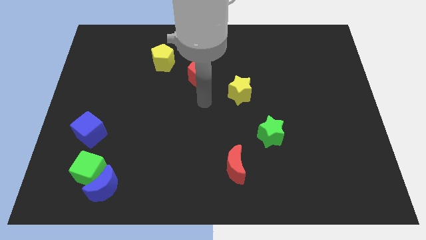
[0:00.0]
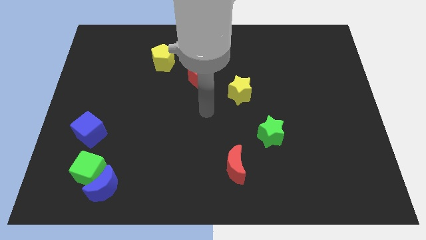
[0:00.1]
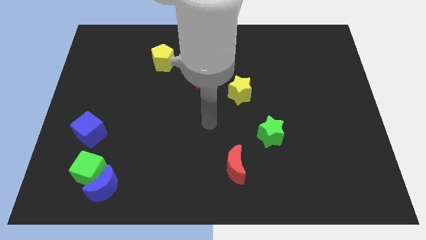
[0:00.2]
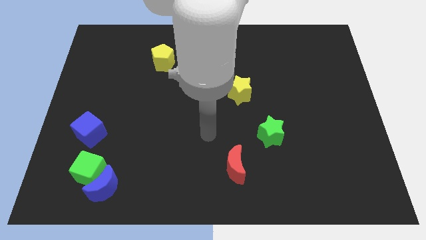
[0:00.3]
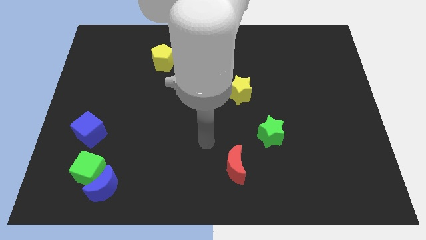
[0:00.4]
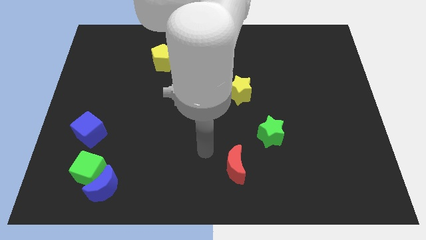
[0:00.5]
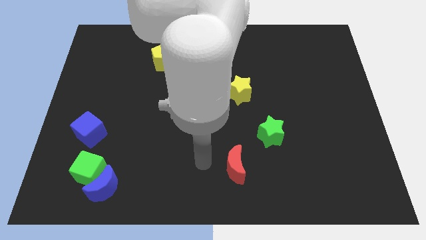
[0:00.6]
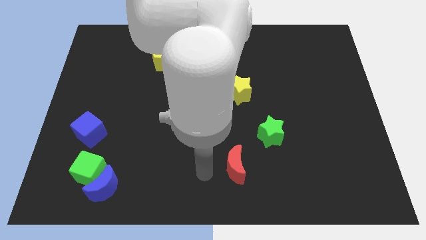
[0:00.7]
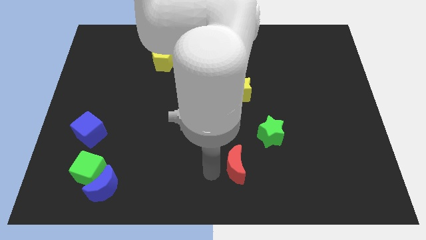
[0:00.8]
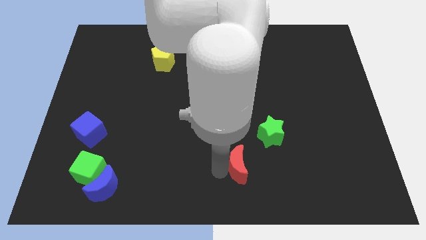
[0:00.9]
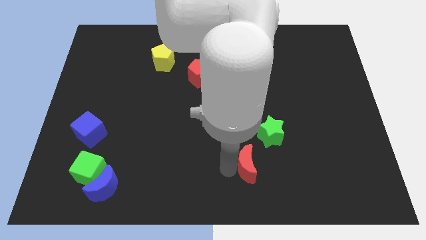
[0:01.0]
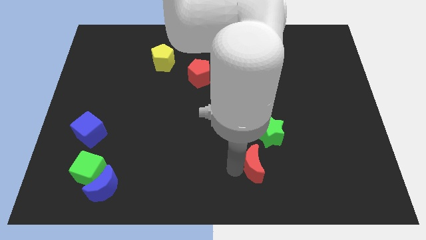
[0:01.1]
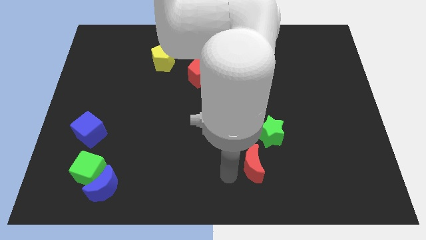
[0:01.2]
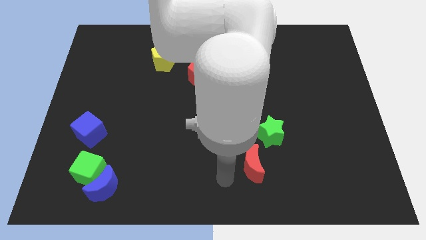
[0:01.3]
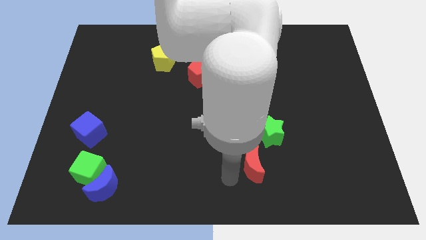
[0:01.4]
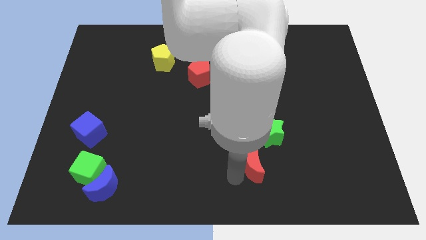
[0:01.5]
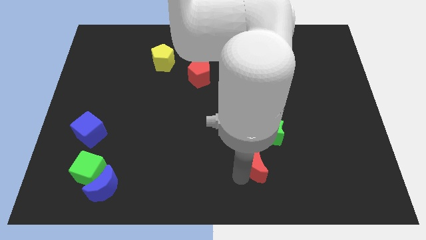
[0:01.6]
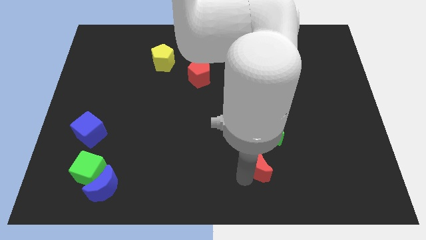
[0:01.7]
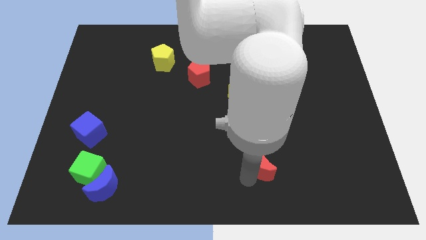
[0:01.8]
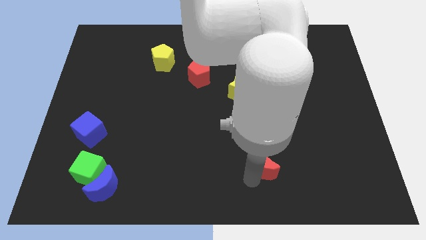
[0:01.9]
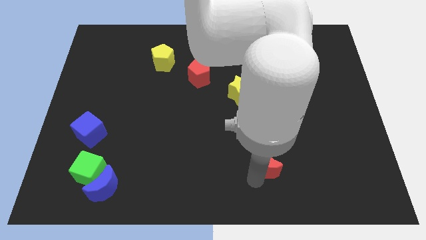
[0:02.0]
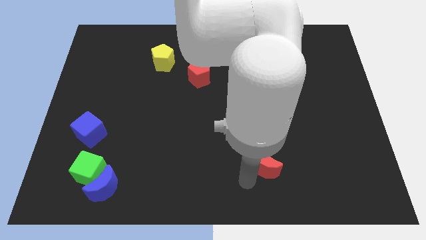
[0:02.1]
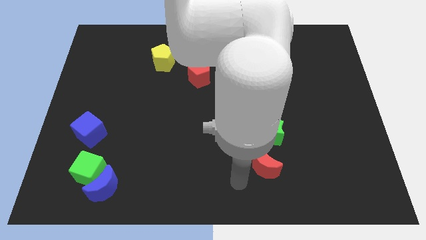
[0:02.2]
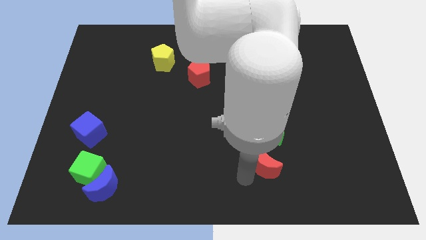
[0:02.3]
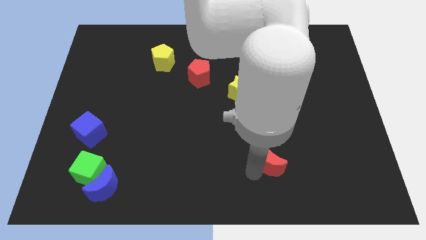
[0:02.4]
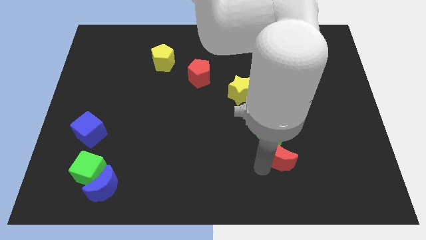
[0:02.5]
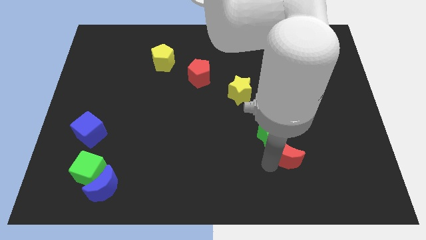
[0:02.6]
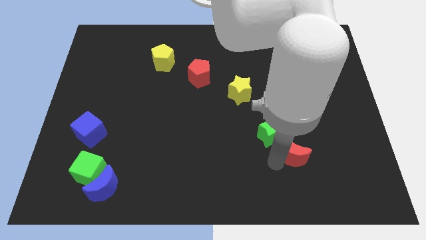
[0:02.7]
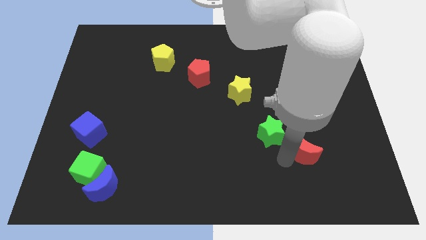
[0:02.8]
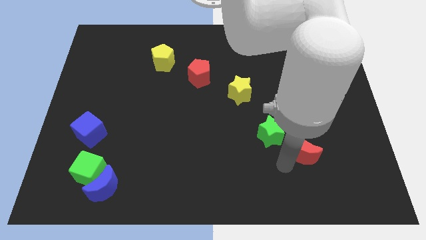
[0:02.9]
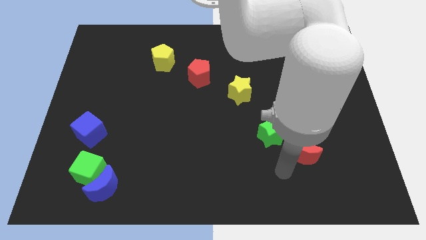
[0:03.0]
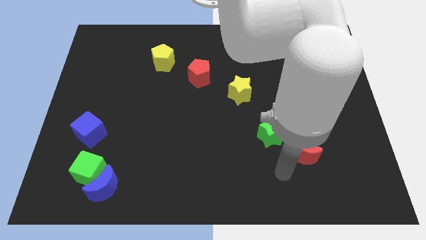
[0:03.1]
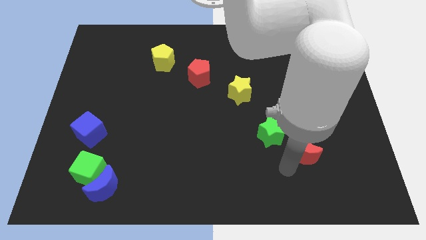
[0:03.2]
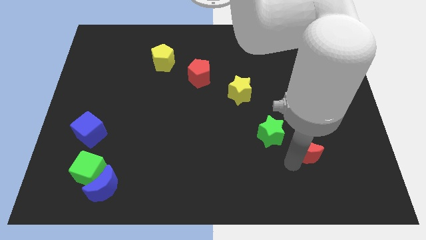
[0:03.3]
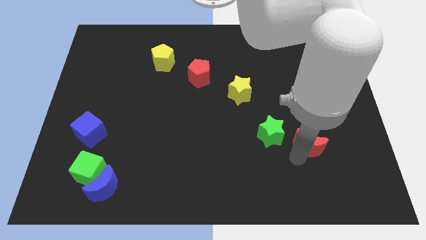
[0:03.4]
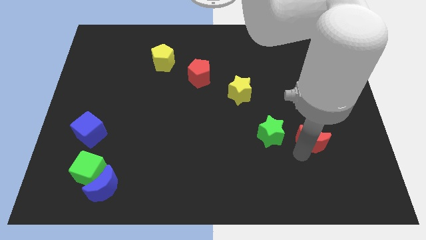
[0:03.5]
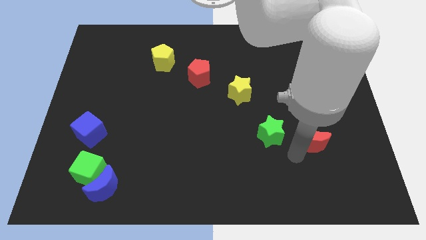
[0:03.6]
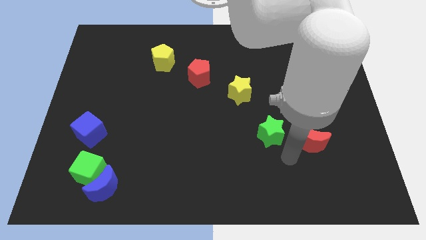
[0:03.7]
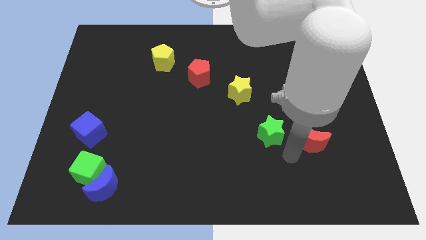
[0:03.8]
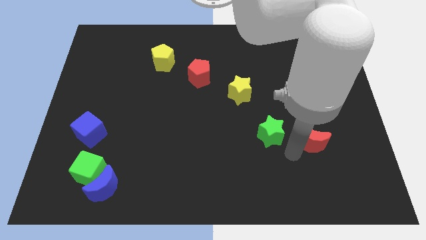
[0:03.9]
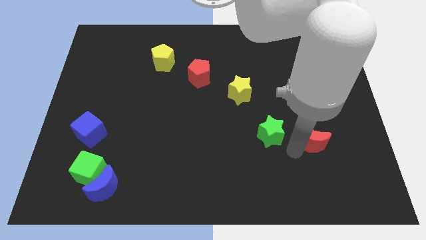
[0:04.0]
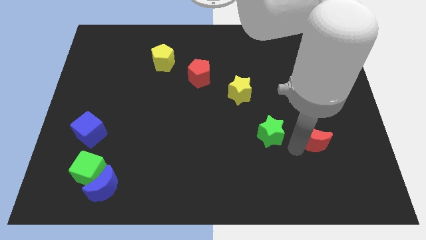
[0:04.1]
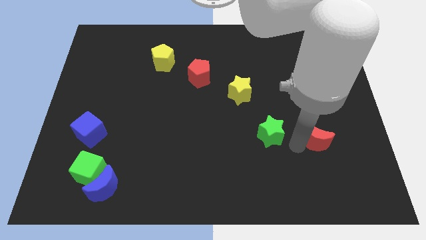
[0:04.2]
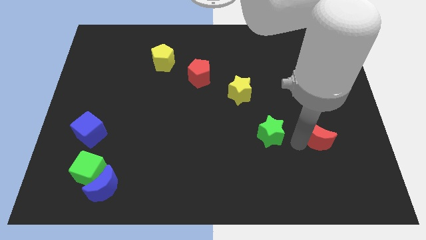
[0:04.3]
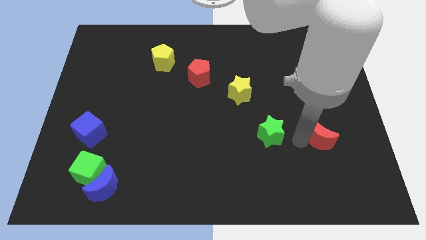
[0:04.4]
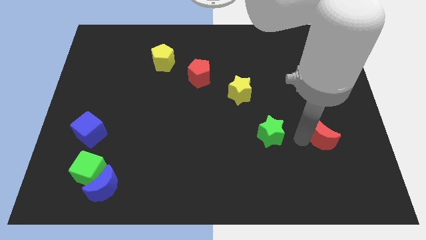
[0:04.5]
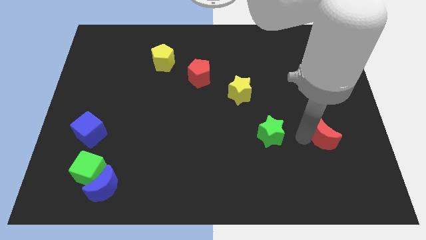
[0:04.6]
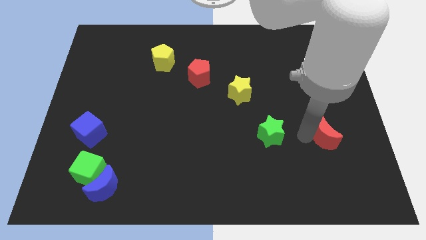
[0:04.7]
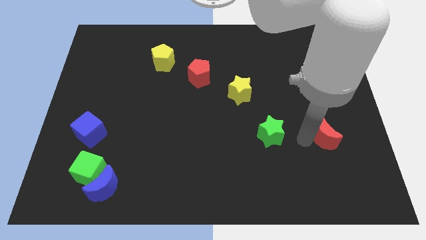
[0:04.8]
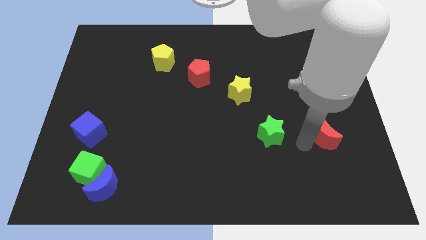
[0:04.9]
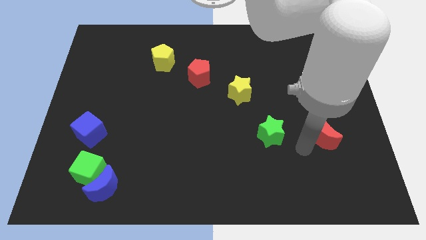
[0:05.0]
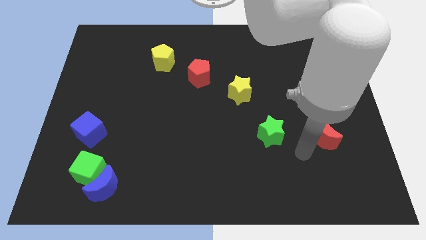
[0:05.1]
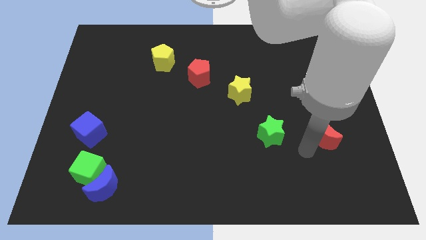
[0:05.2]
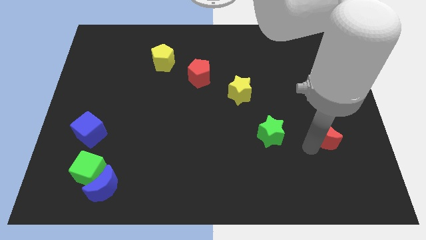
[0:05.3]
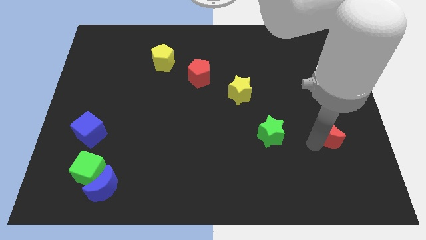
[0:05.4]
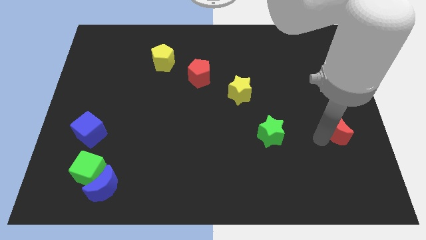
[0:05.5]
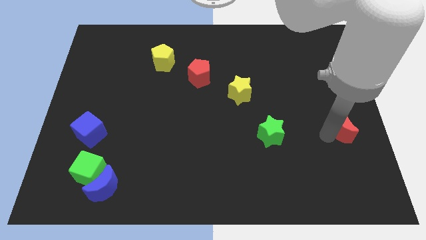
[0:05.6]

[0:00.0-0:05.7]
move the red moon to the right side

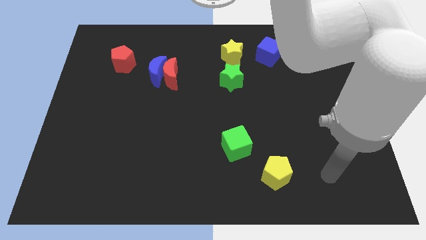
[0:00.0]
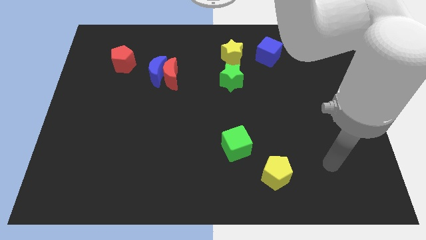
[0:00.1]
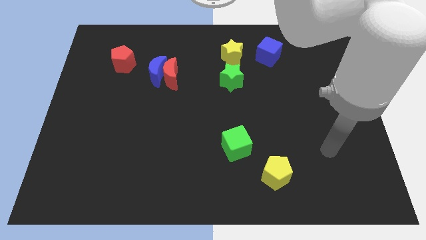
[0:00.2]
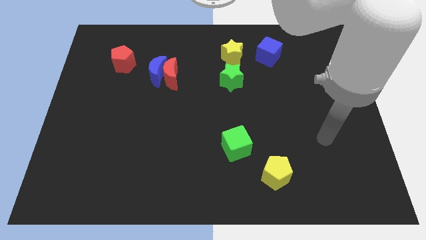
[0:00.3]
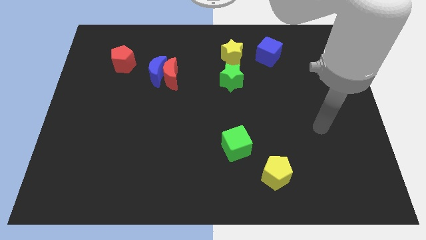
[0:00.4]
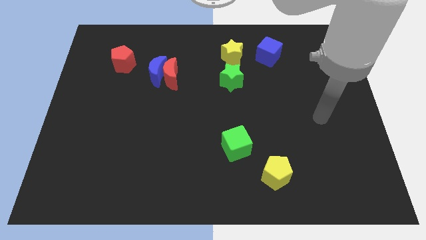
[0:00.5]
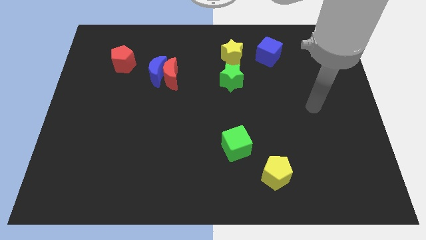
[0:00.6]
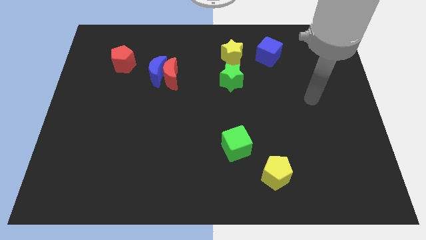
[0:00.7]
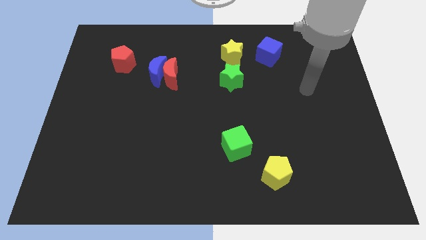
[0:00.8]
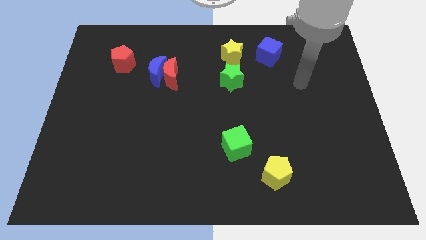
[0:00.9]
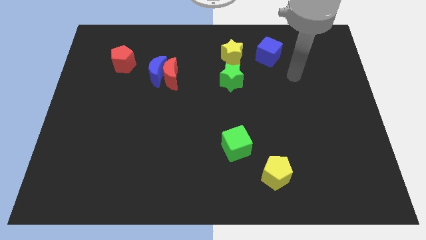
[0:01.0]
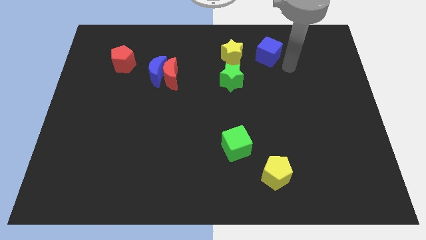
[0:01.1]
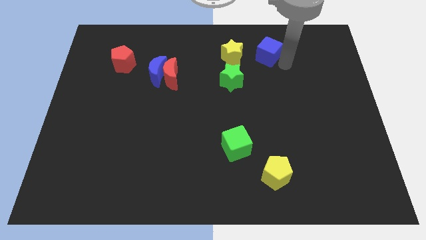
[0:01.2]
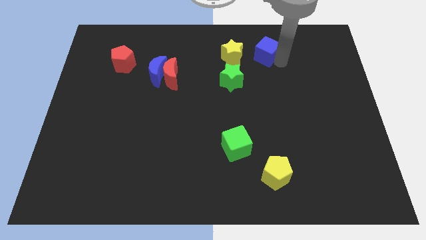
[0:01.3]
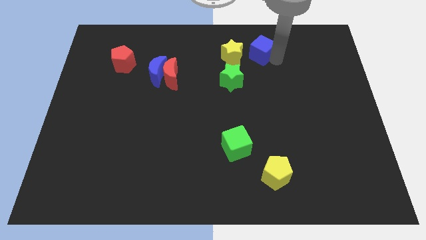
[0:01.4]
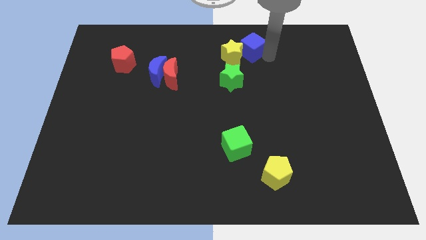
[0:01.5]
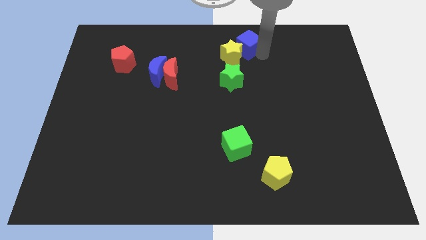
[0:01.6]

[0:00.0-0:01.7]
put the blue cube to the top side
